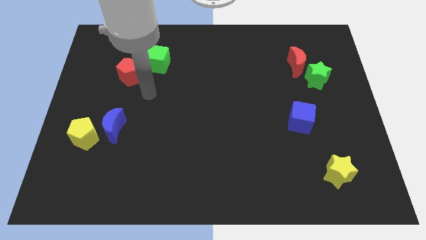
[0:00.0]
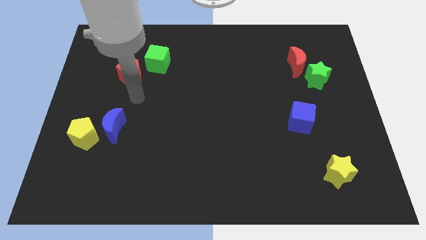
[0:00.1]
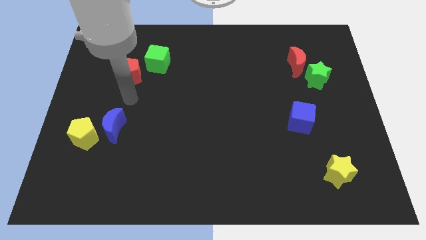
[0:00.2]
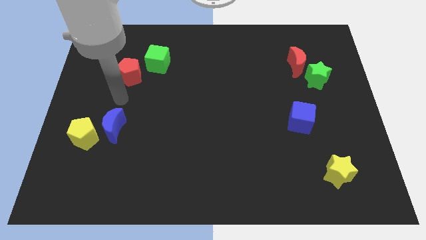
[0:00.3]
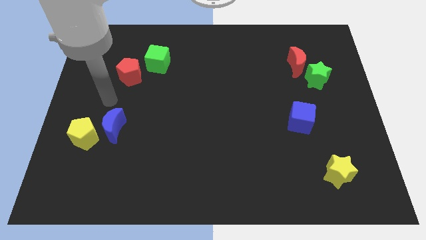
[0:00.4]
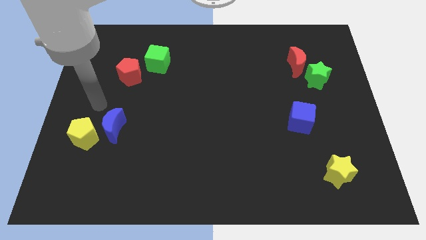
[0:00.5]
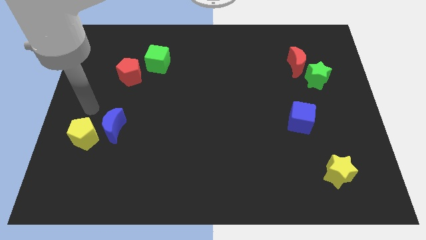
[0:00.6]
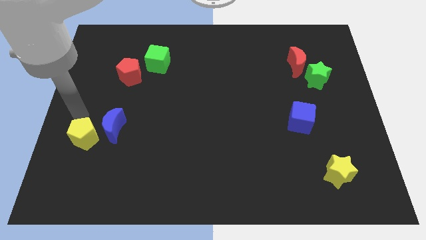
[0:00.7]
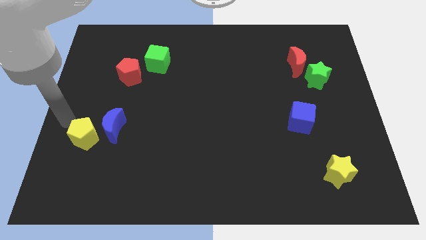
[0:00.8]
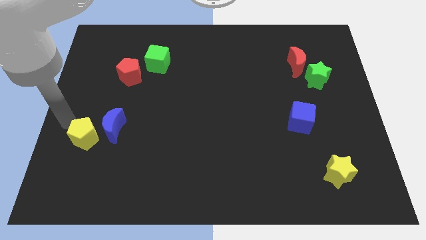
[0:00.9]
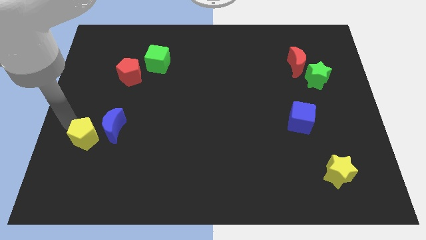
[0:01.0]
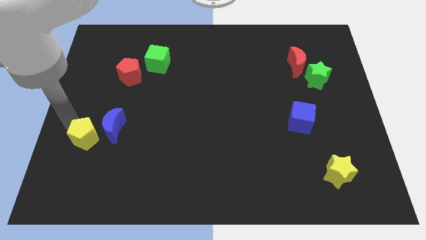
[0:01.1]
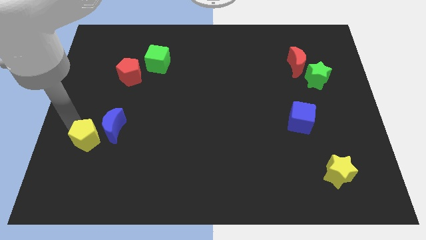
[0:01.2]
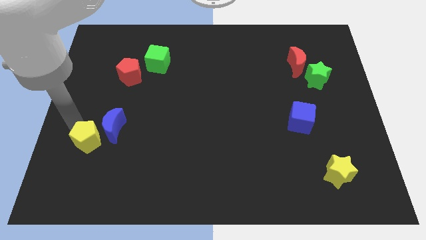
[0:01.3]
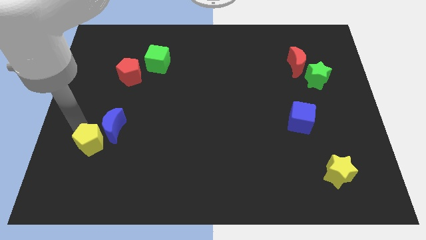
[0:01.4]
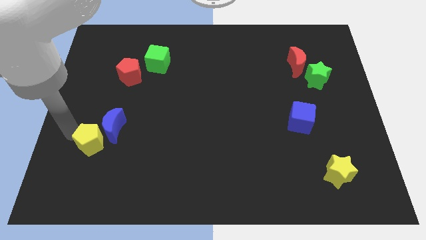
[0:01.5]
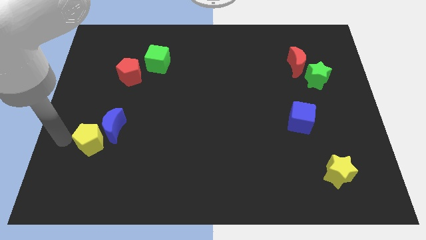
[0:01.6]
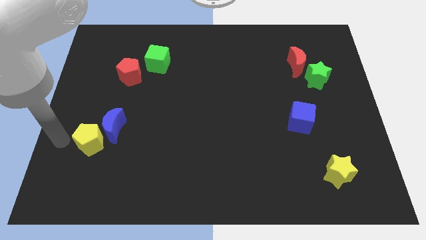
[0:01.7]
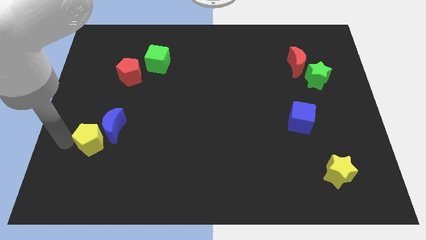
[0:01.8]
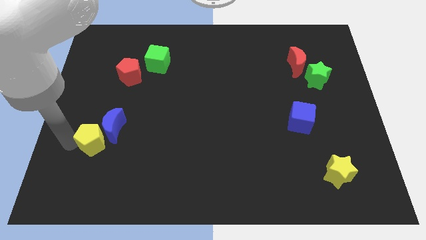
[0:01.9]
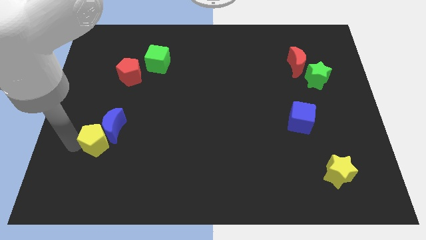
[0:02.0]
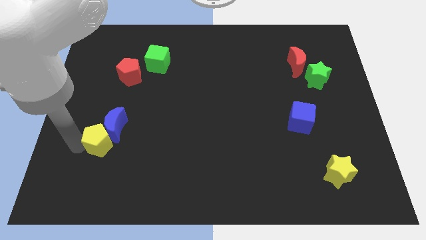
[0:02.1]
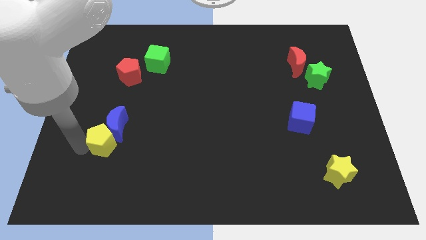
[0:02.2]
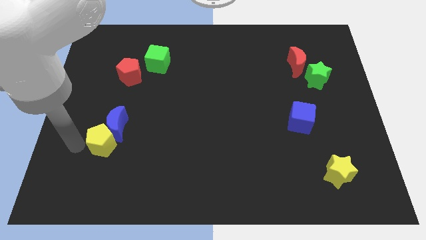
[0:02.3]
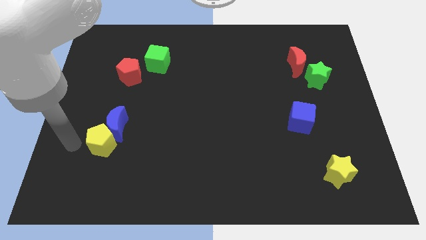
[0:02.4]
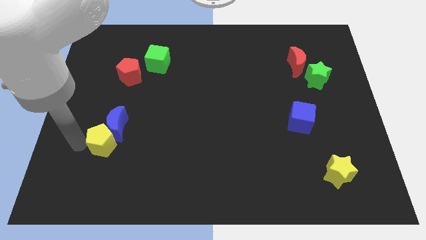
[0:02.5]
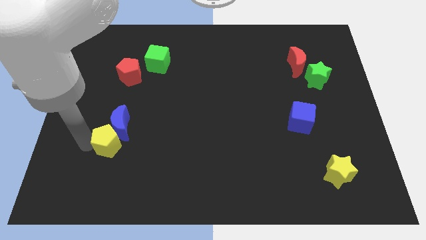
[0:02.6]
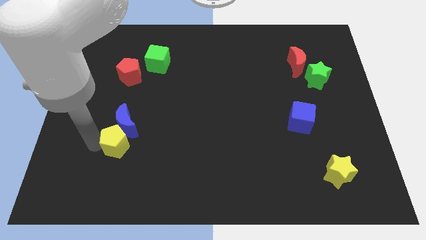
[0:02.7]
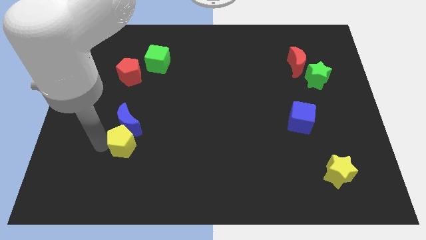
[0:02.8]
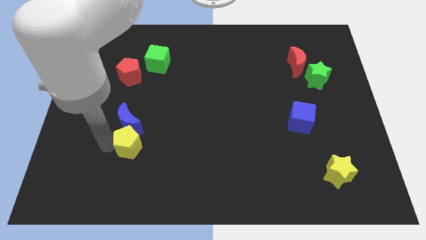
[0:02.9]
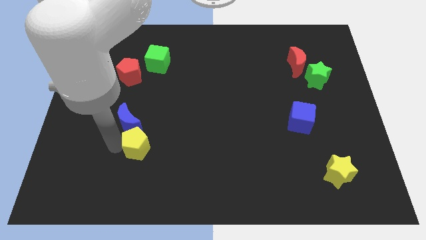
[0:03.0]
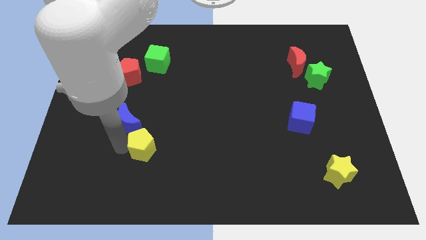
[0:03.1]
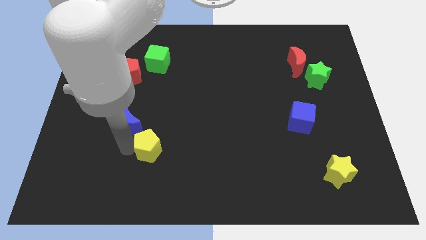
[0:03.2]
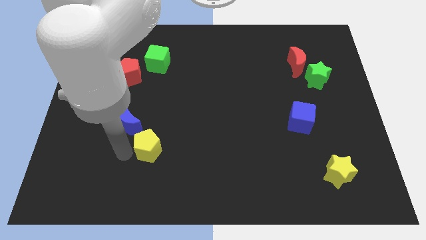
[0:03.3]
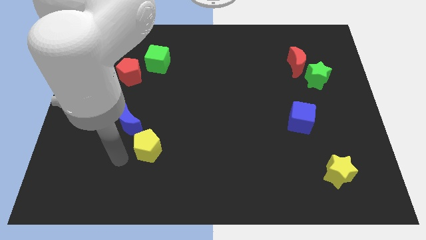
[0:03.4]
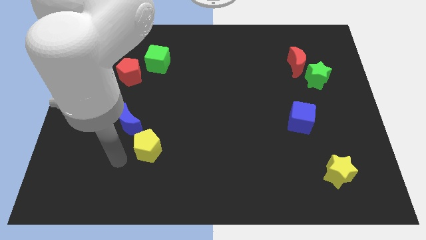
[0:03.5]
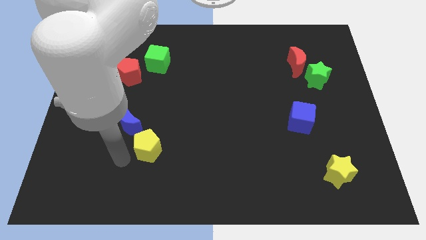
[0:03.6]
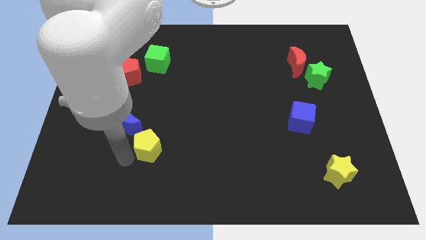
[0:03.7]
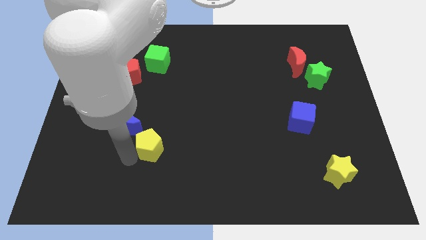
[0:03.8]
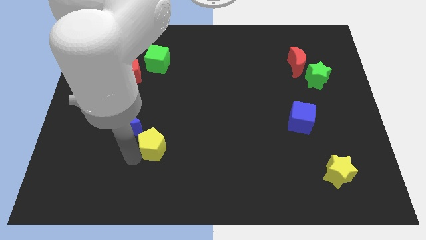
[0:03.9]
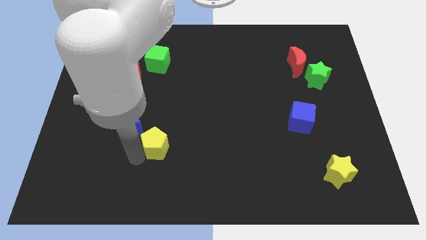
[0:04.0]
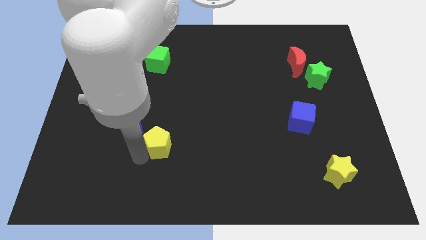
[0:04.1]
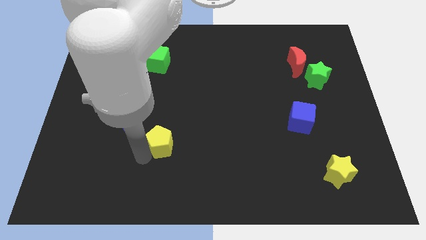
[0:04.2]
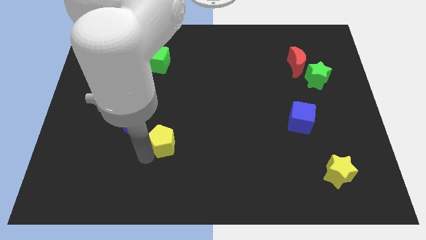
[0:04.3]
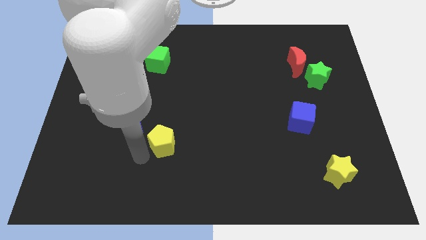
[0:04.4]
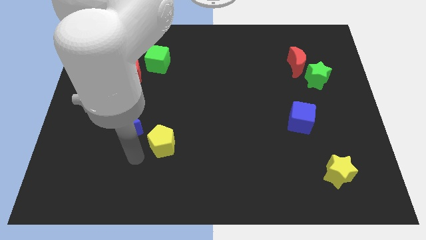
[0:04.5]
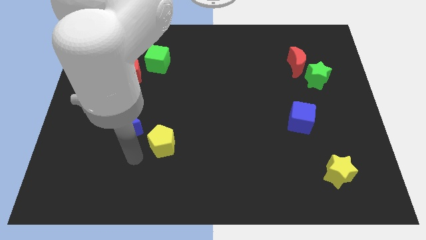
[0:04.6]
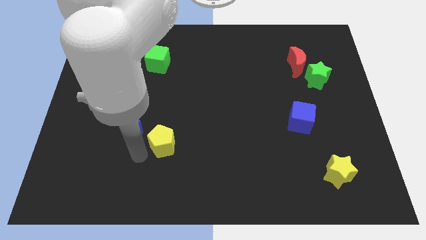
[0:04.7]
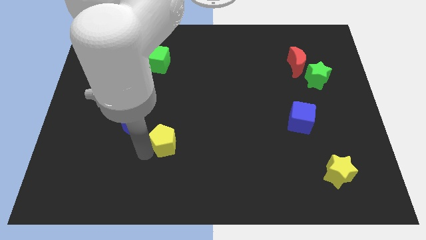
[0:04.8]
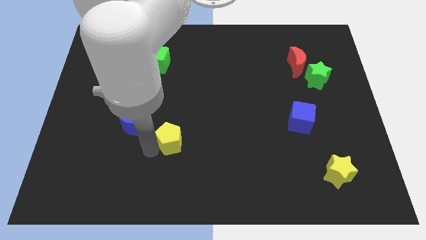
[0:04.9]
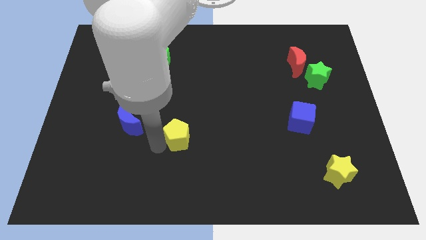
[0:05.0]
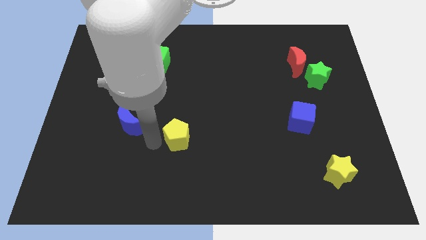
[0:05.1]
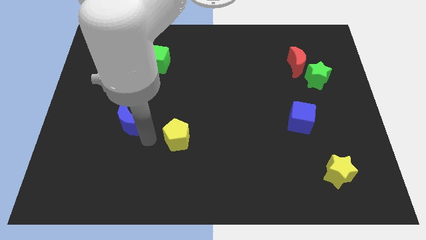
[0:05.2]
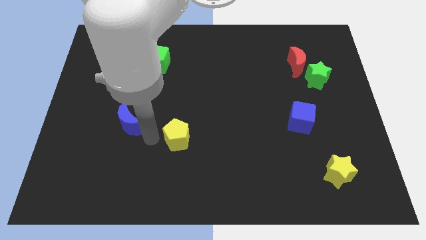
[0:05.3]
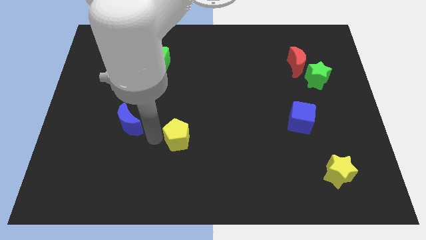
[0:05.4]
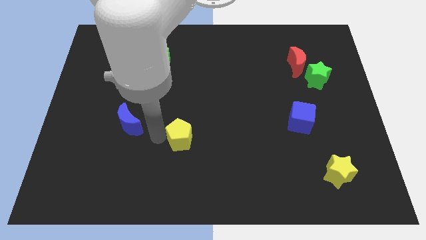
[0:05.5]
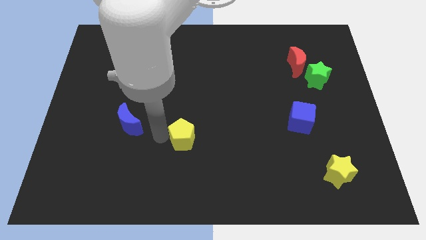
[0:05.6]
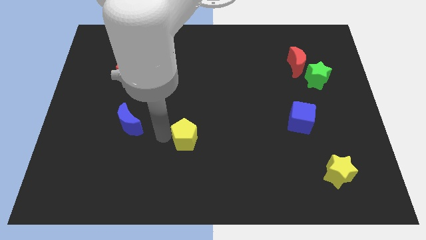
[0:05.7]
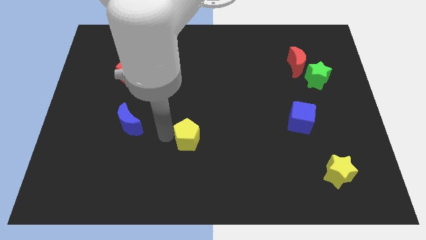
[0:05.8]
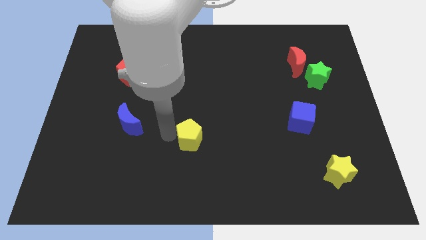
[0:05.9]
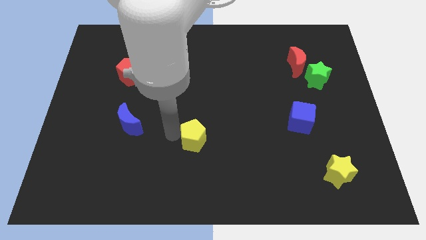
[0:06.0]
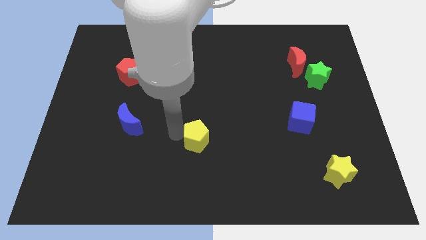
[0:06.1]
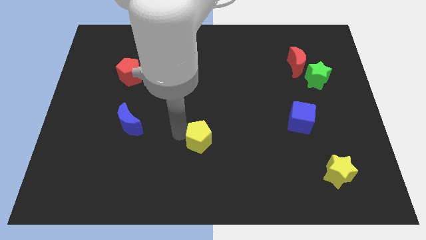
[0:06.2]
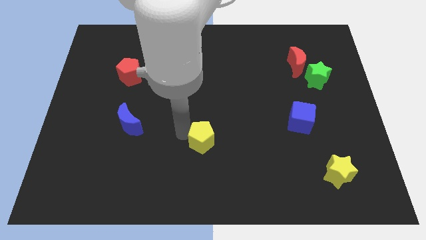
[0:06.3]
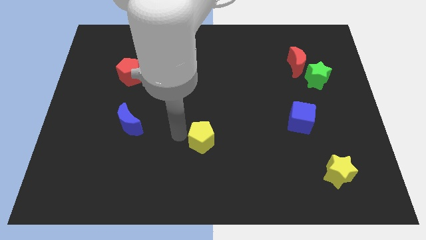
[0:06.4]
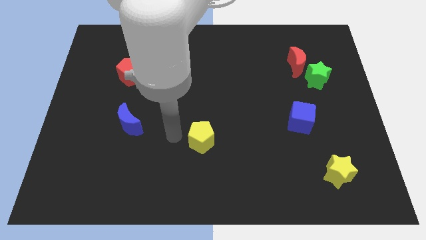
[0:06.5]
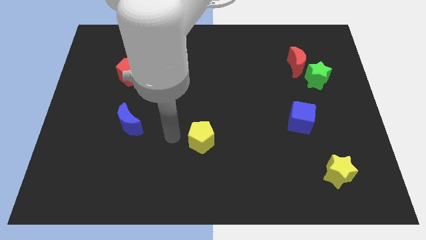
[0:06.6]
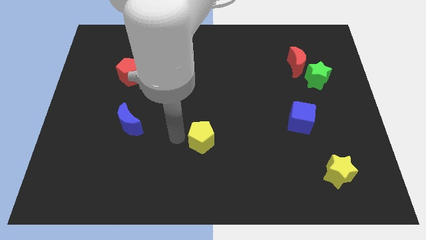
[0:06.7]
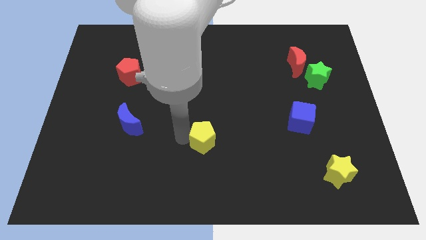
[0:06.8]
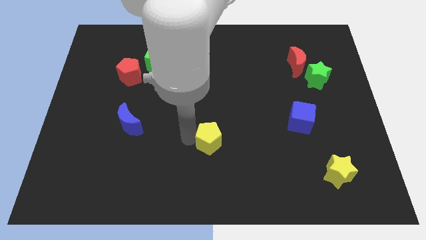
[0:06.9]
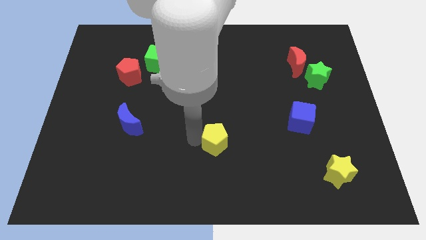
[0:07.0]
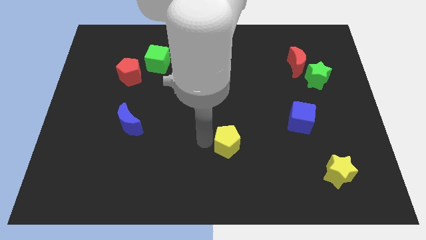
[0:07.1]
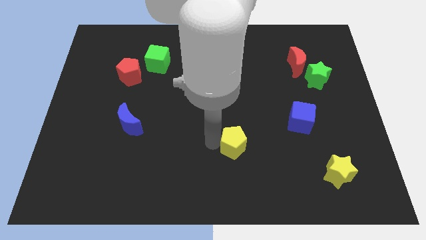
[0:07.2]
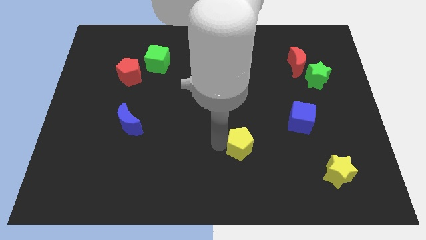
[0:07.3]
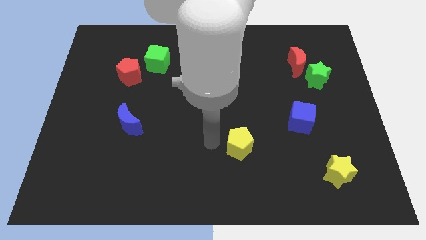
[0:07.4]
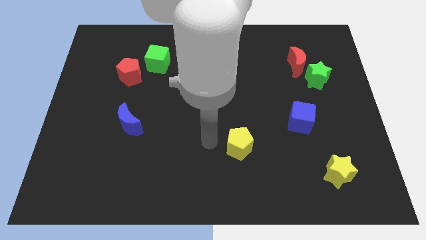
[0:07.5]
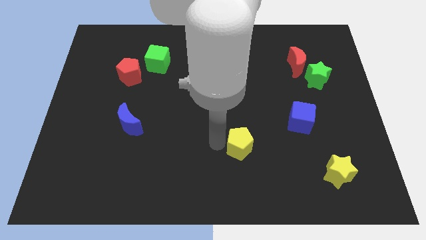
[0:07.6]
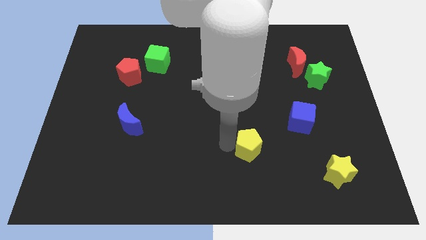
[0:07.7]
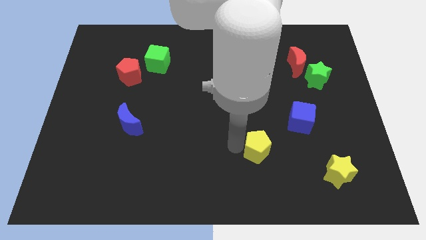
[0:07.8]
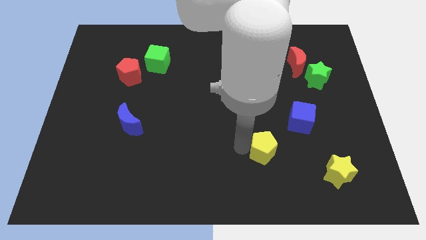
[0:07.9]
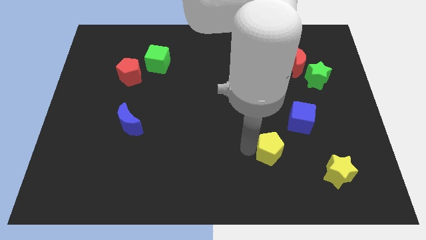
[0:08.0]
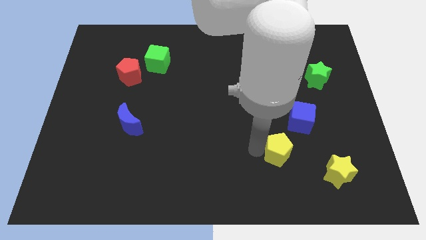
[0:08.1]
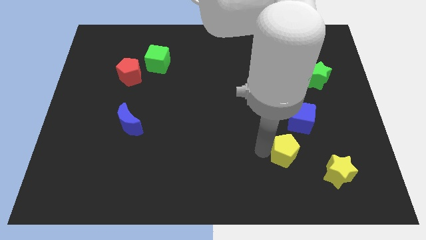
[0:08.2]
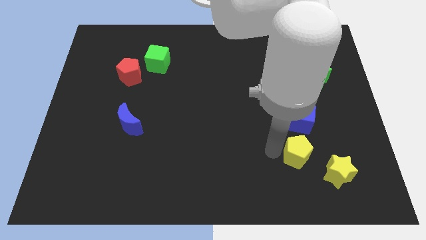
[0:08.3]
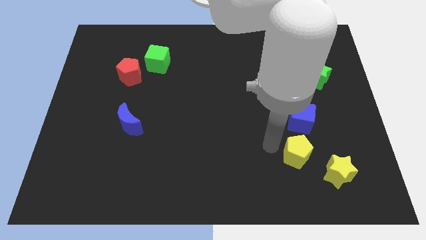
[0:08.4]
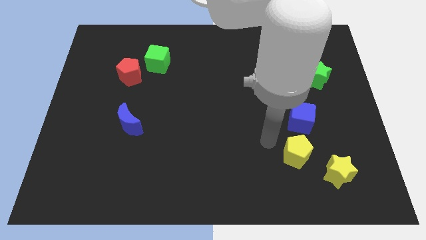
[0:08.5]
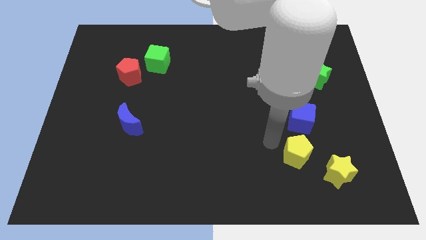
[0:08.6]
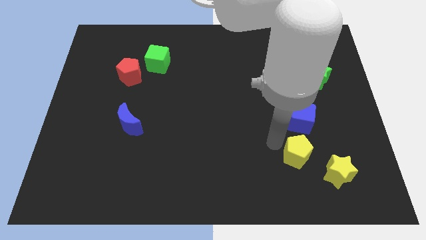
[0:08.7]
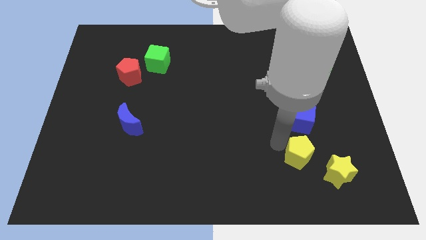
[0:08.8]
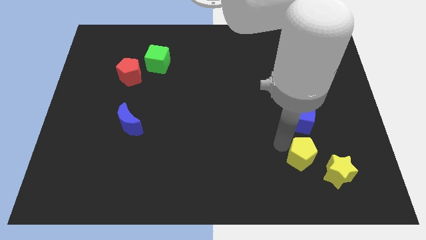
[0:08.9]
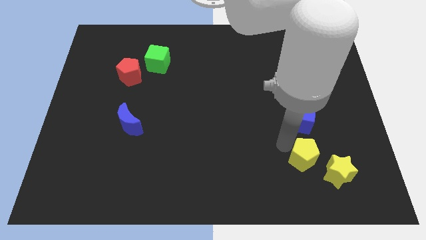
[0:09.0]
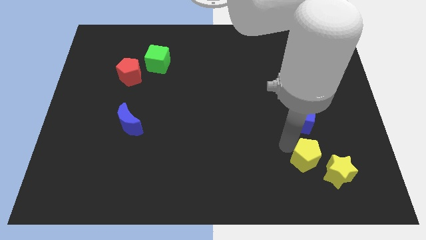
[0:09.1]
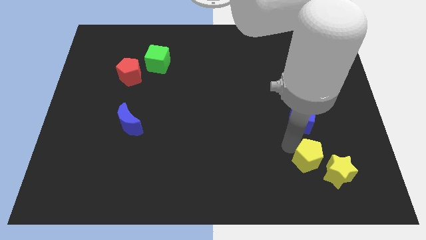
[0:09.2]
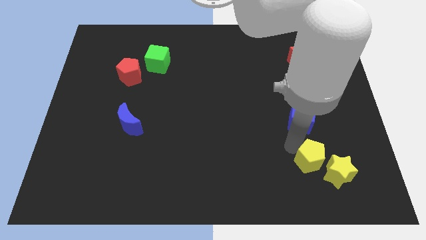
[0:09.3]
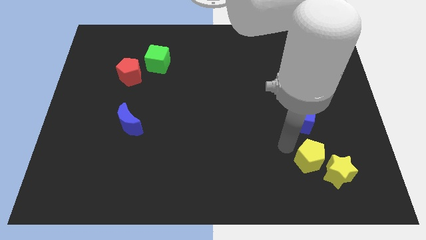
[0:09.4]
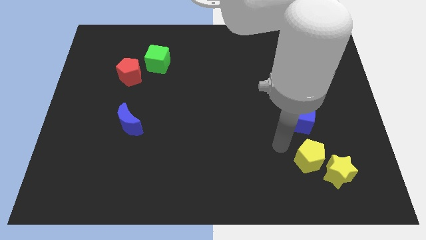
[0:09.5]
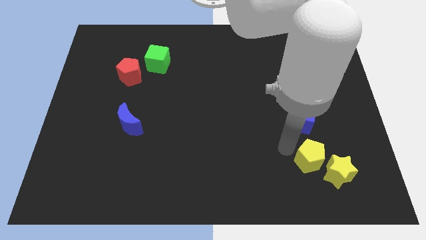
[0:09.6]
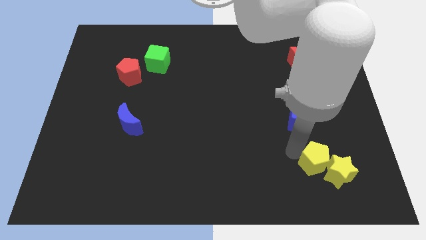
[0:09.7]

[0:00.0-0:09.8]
push the yellow pentagon next to the yellow star
